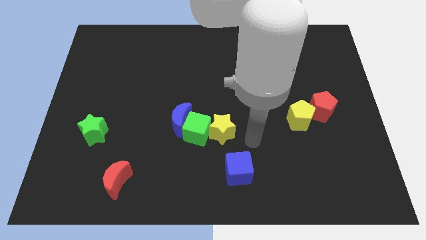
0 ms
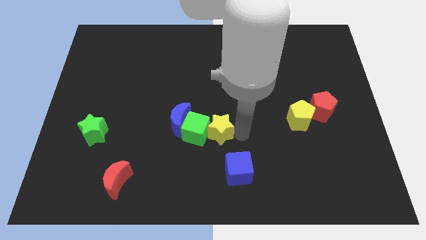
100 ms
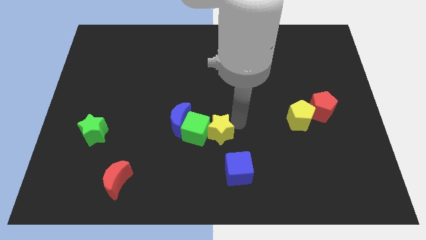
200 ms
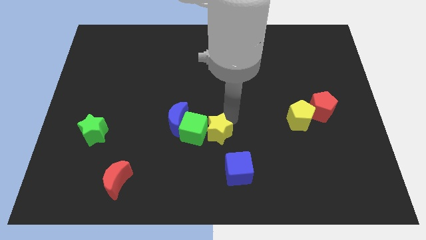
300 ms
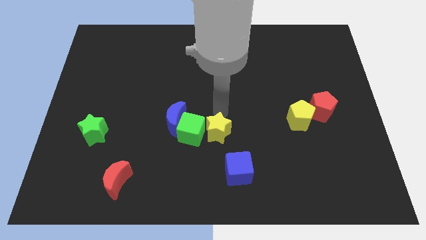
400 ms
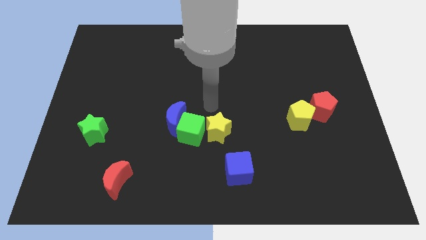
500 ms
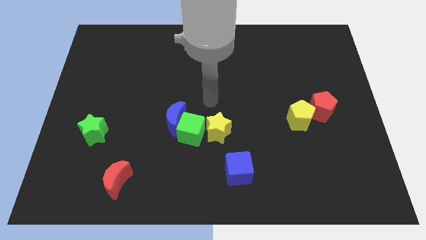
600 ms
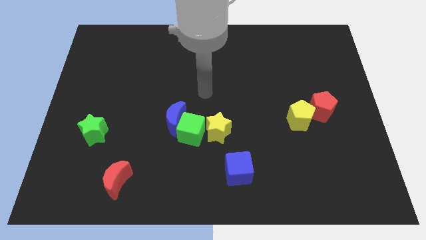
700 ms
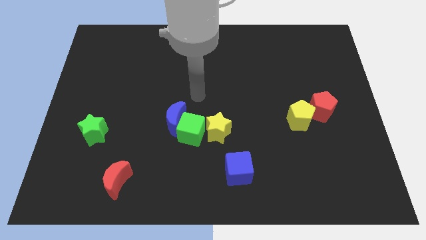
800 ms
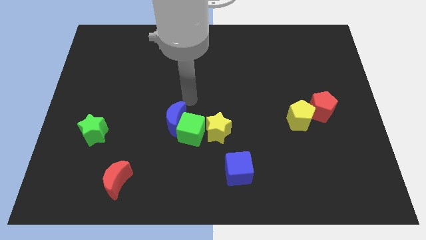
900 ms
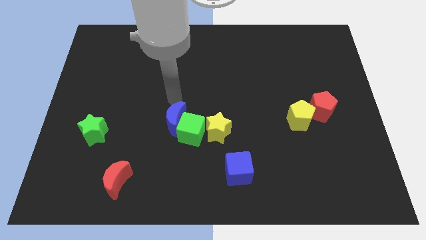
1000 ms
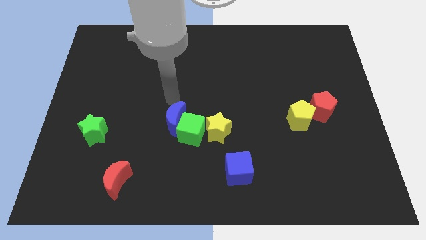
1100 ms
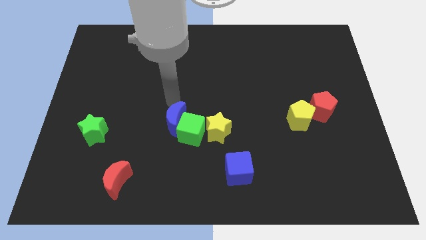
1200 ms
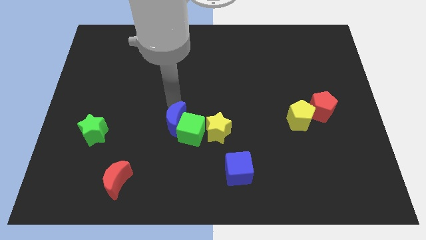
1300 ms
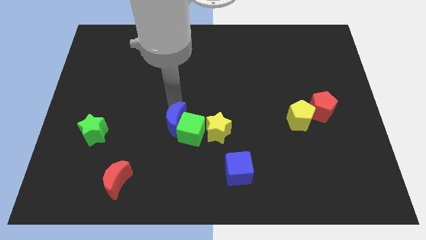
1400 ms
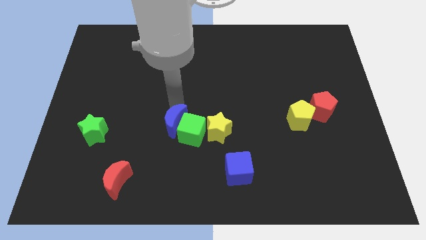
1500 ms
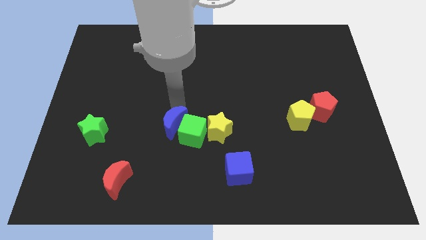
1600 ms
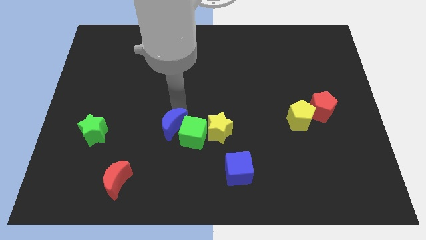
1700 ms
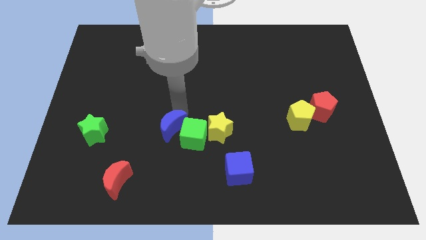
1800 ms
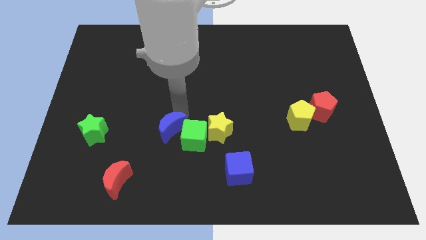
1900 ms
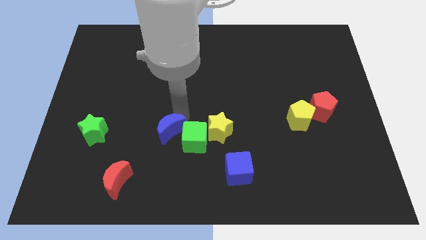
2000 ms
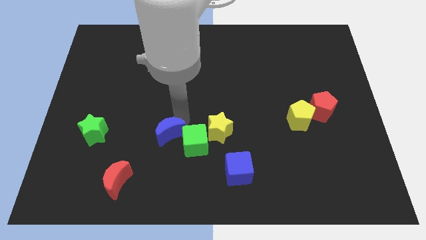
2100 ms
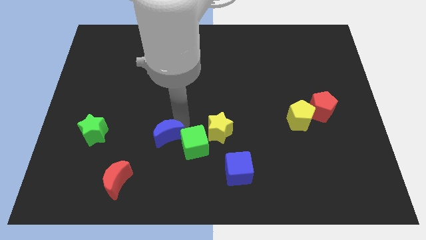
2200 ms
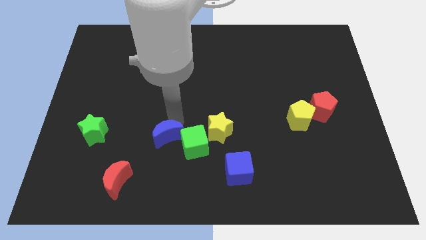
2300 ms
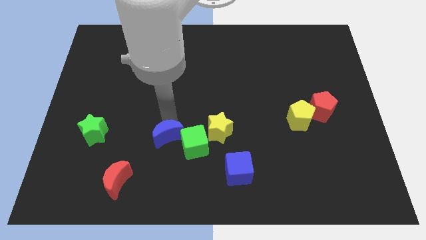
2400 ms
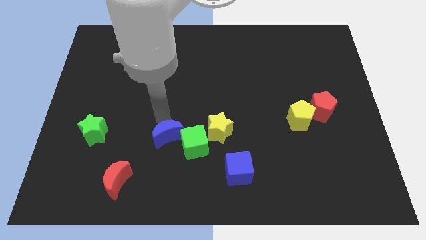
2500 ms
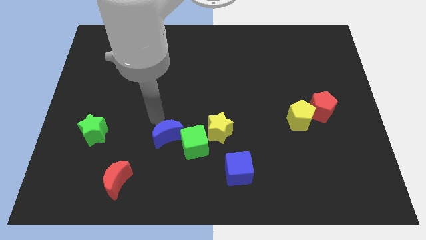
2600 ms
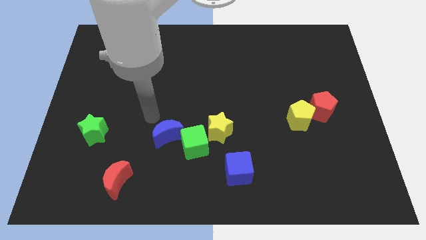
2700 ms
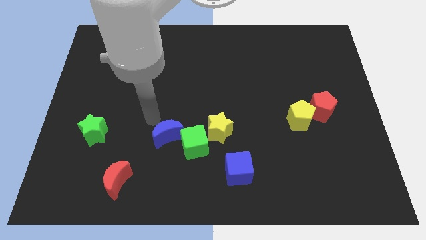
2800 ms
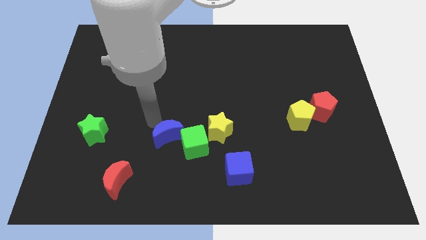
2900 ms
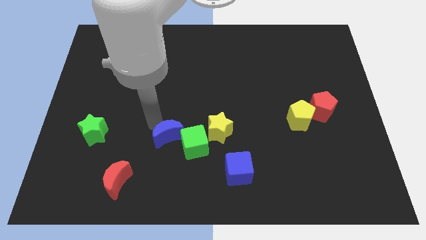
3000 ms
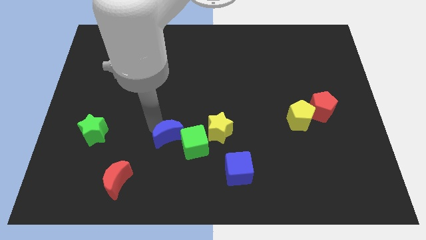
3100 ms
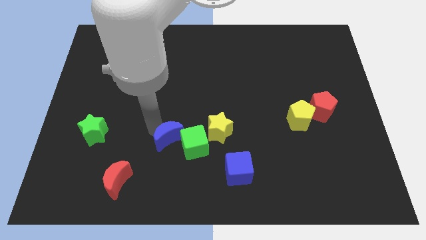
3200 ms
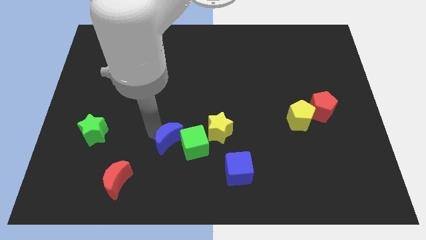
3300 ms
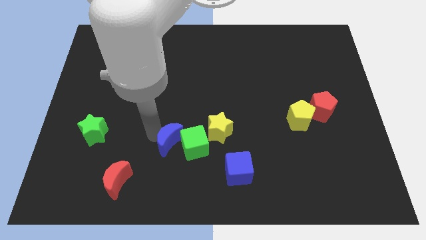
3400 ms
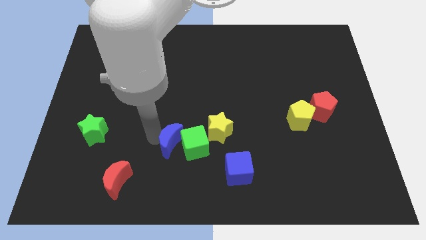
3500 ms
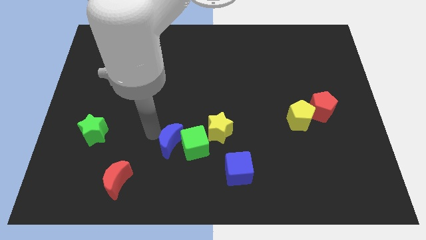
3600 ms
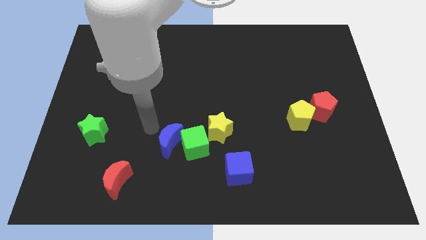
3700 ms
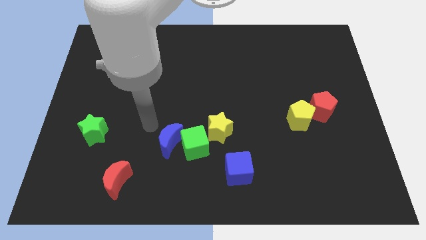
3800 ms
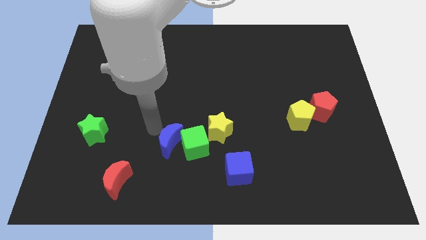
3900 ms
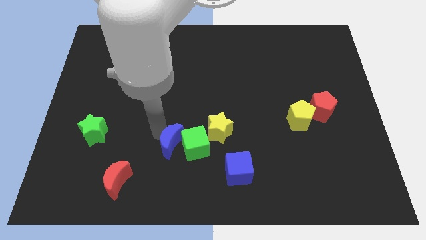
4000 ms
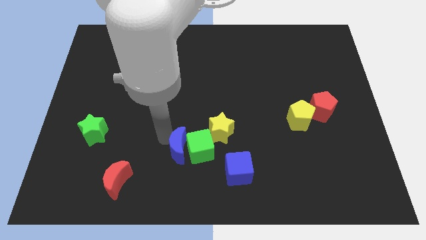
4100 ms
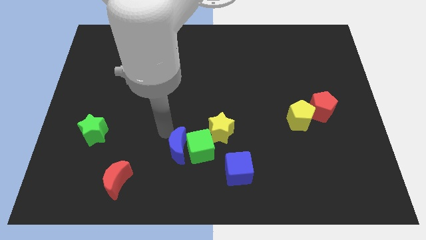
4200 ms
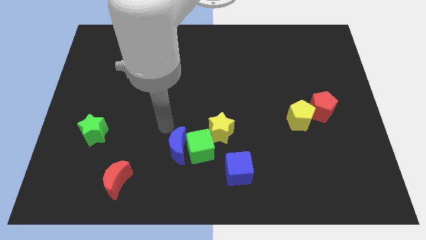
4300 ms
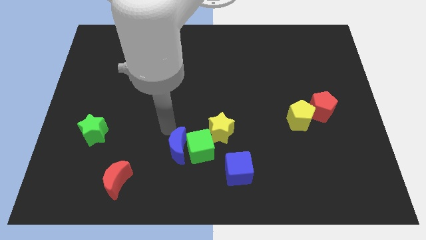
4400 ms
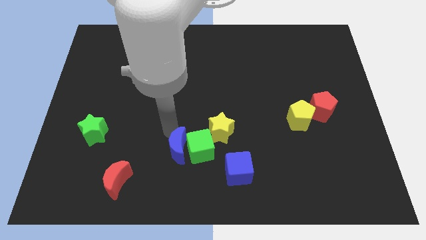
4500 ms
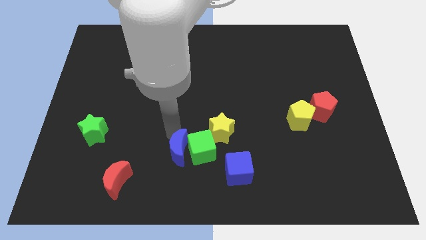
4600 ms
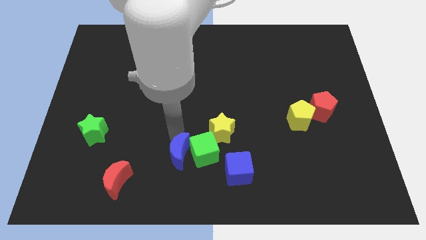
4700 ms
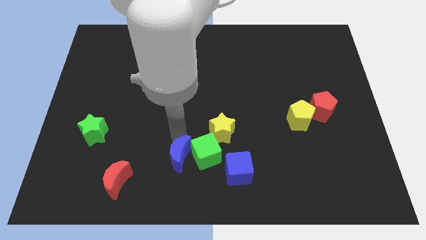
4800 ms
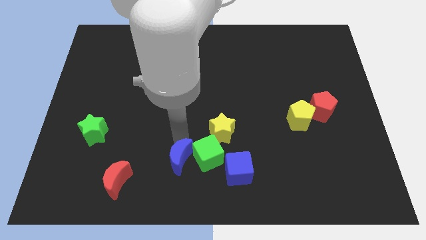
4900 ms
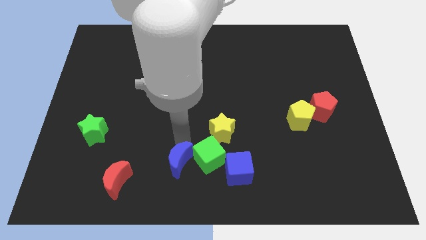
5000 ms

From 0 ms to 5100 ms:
move the blue moon to the bottom side
